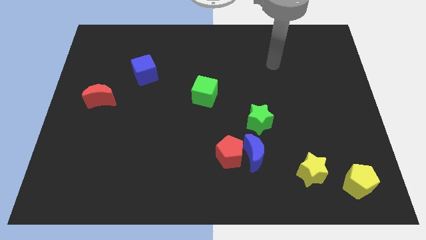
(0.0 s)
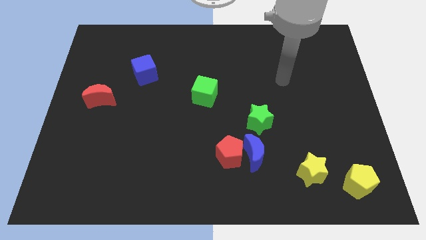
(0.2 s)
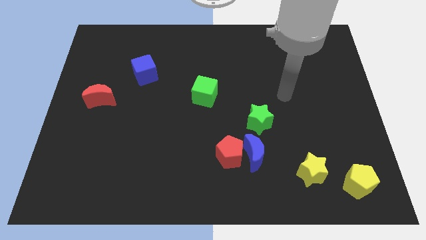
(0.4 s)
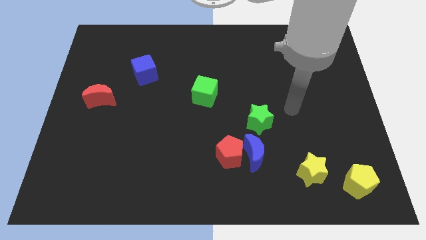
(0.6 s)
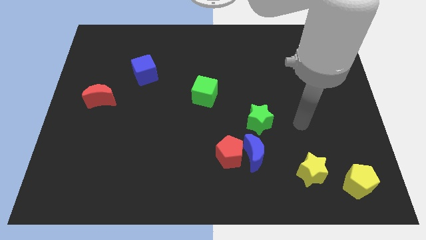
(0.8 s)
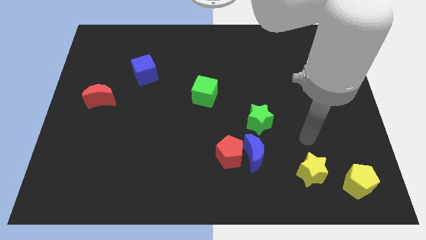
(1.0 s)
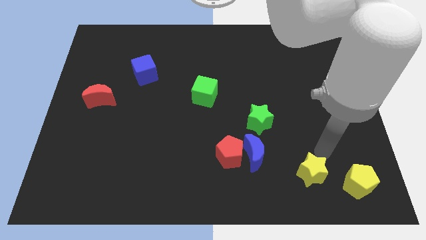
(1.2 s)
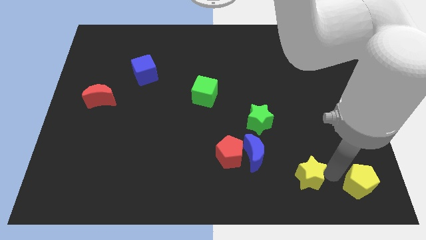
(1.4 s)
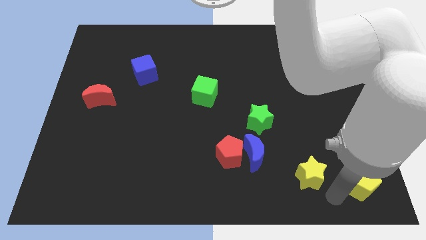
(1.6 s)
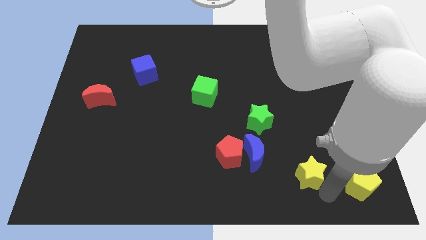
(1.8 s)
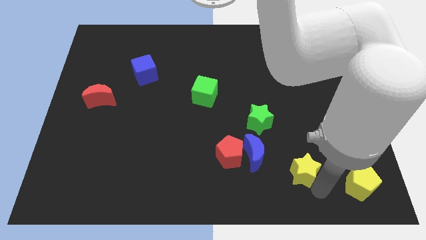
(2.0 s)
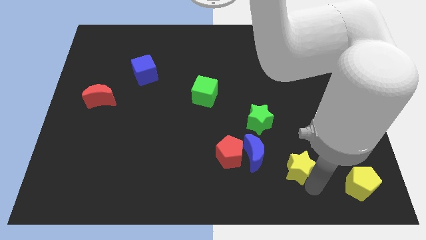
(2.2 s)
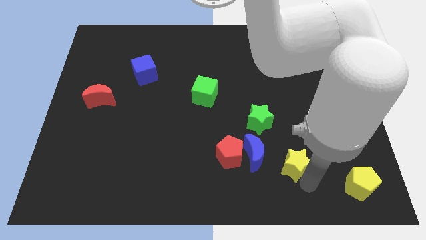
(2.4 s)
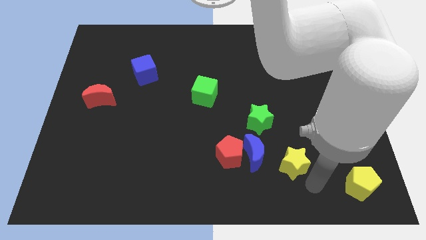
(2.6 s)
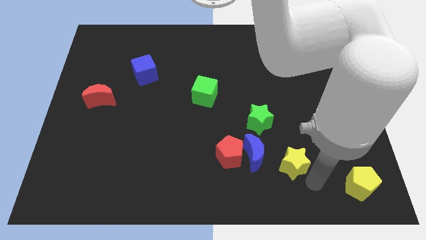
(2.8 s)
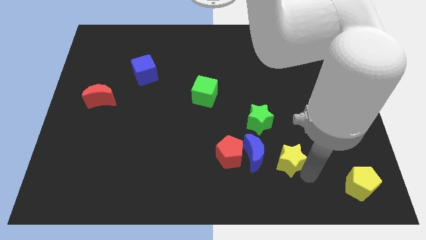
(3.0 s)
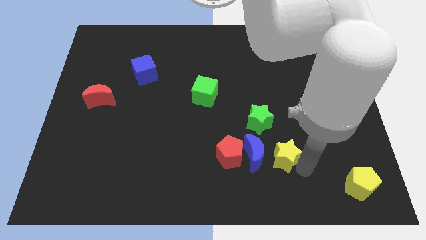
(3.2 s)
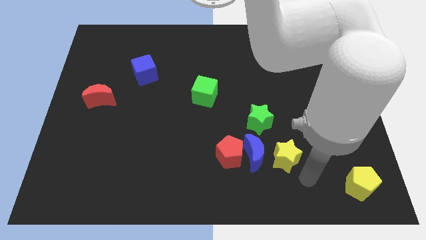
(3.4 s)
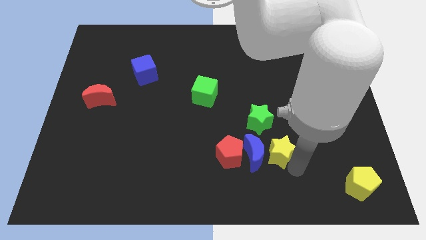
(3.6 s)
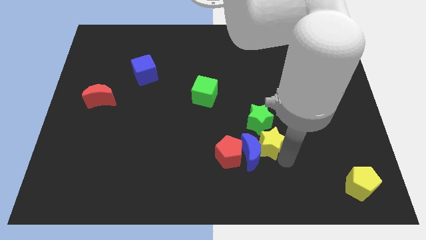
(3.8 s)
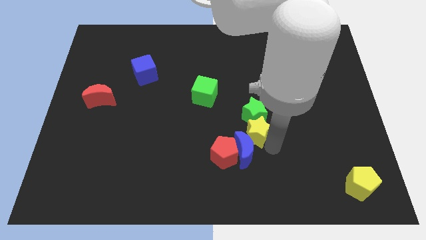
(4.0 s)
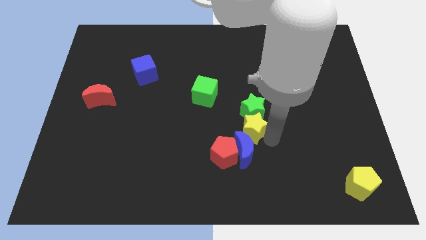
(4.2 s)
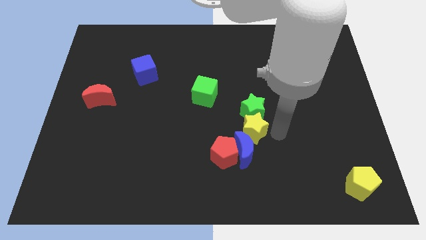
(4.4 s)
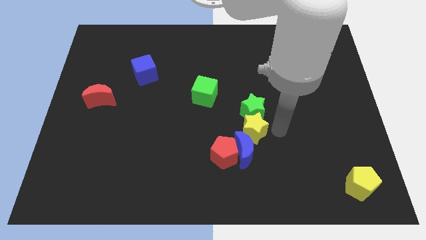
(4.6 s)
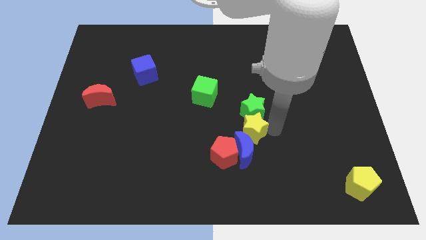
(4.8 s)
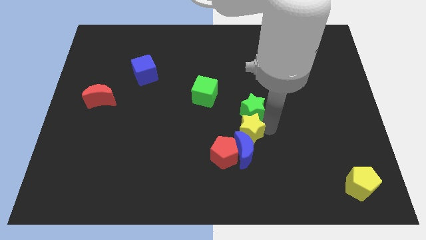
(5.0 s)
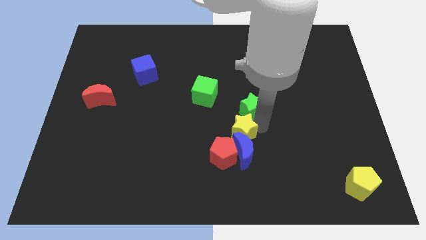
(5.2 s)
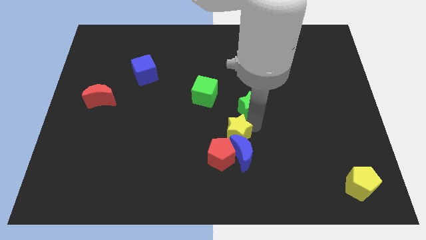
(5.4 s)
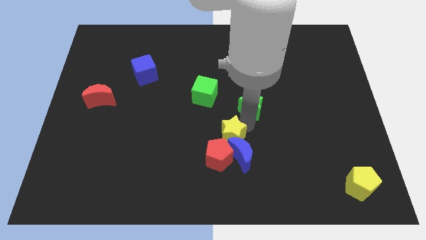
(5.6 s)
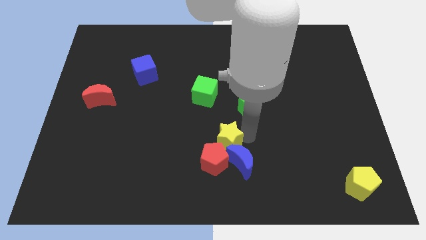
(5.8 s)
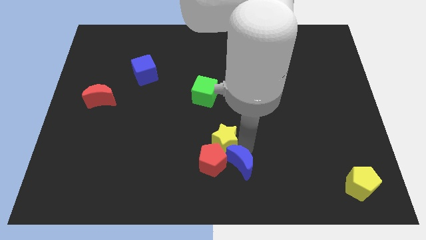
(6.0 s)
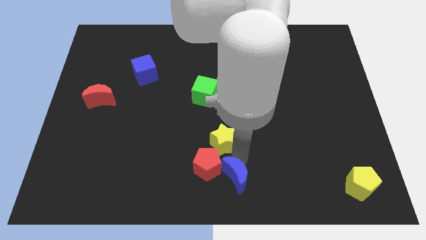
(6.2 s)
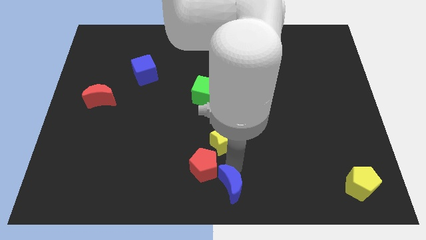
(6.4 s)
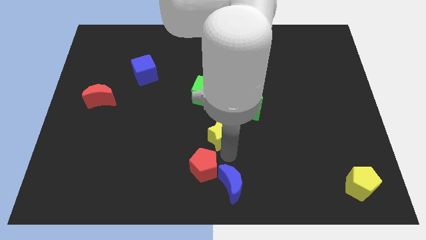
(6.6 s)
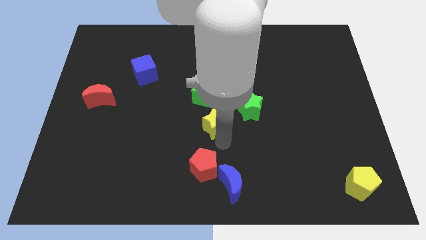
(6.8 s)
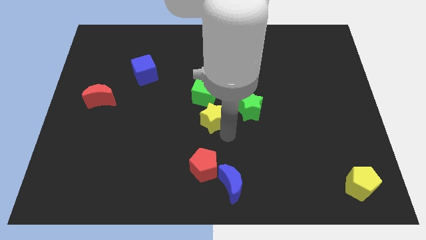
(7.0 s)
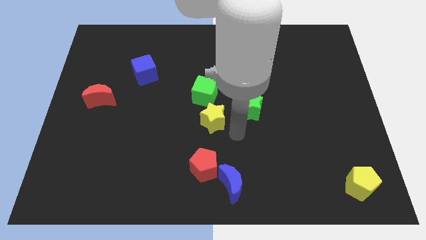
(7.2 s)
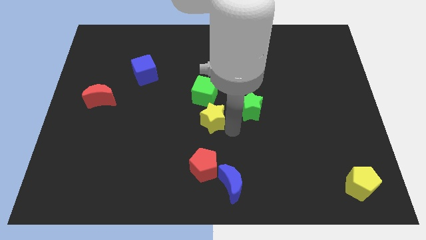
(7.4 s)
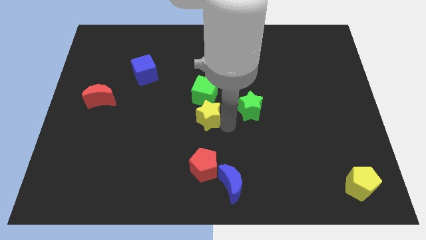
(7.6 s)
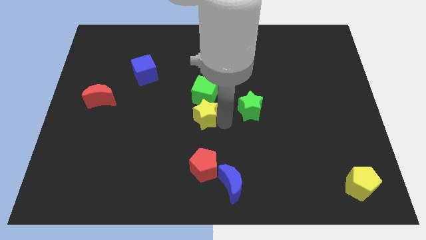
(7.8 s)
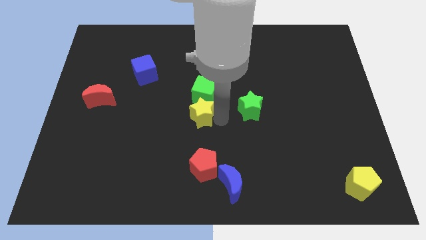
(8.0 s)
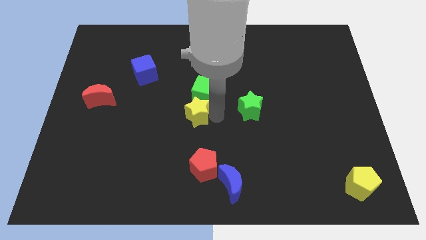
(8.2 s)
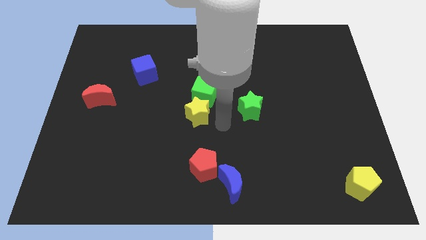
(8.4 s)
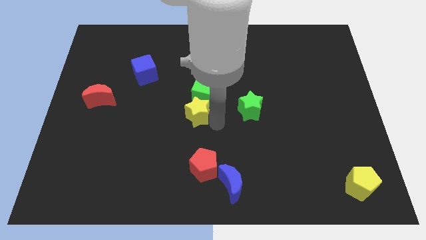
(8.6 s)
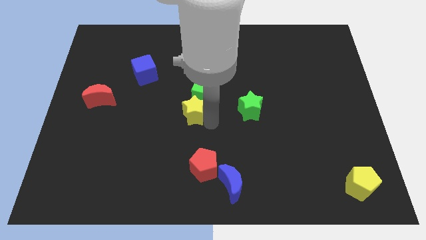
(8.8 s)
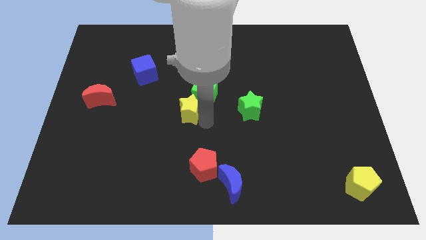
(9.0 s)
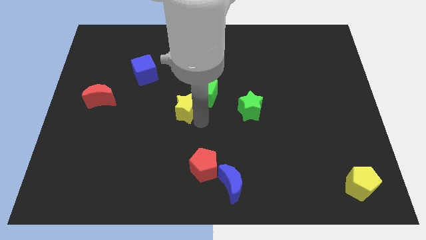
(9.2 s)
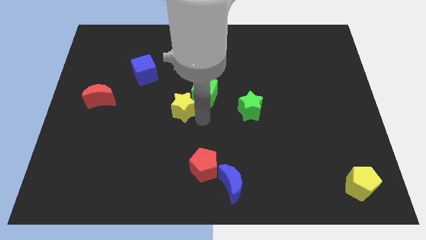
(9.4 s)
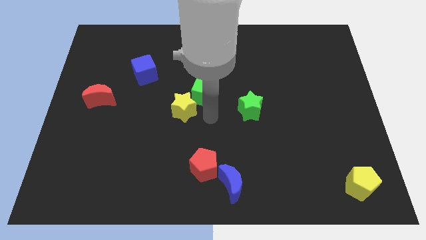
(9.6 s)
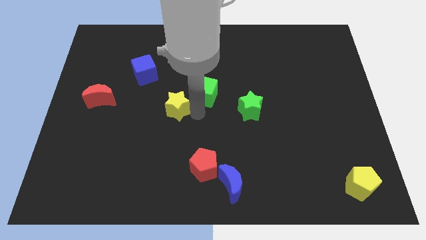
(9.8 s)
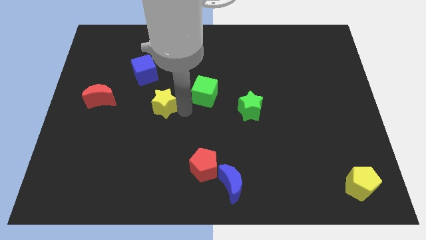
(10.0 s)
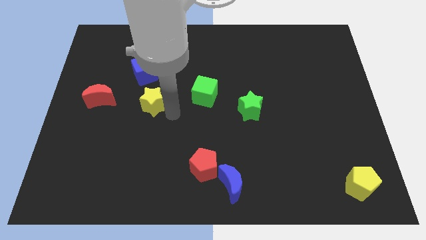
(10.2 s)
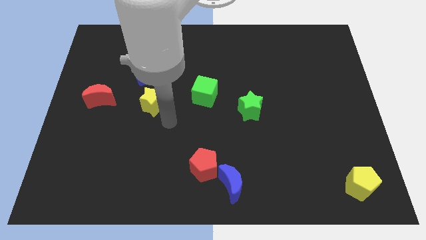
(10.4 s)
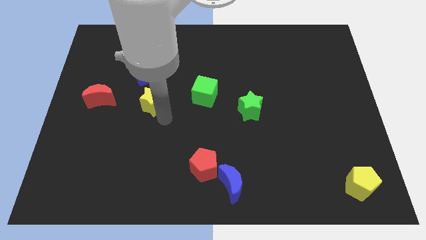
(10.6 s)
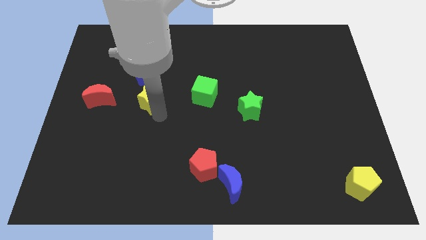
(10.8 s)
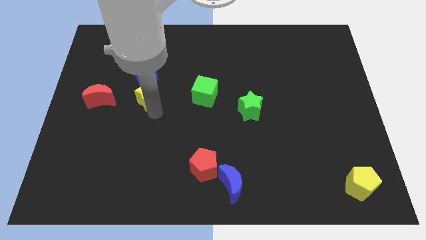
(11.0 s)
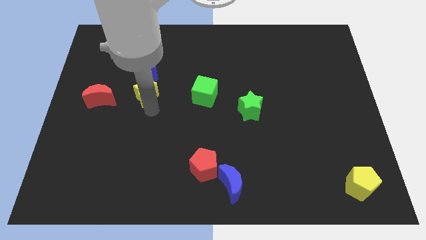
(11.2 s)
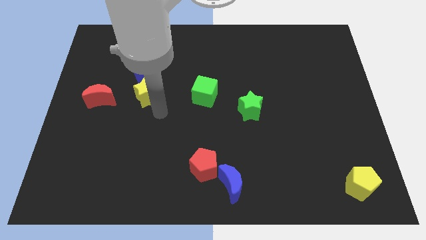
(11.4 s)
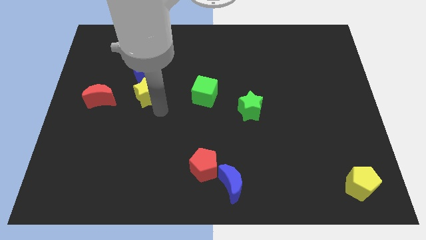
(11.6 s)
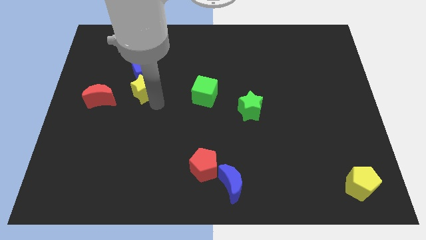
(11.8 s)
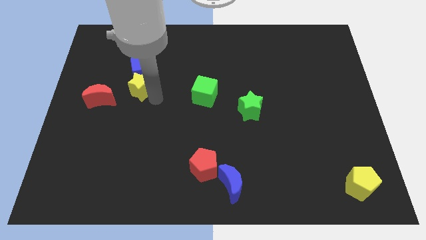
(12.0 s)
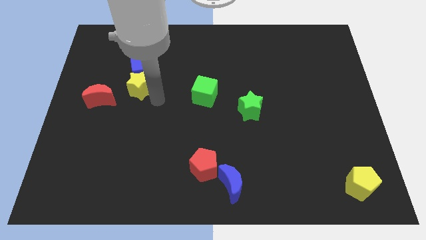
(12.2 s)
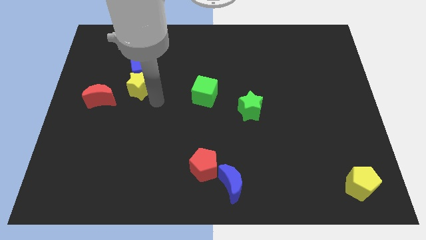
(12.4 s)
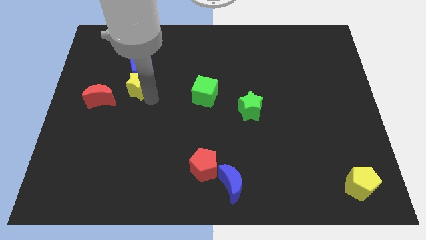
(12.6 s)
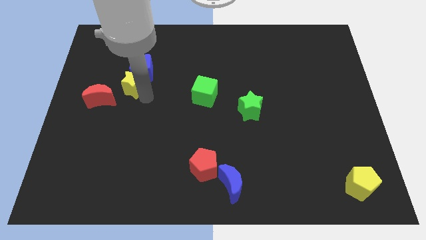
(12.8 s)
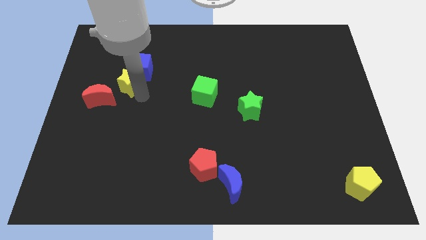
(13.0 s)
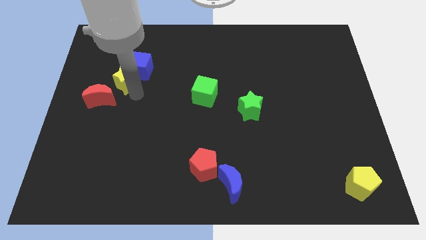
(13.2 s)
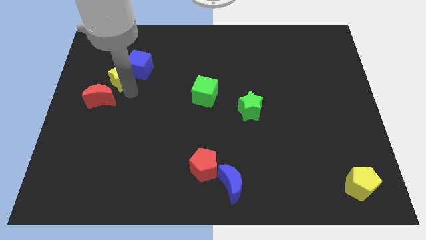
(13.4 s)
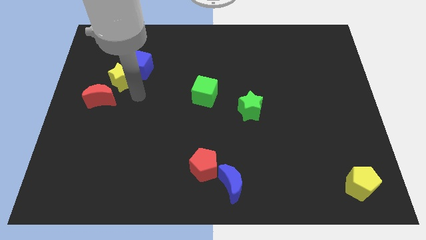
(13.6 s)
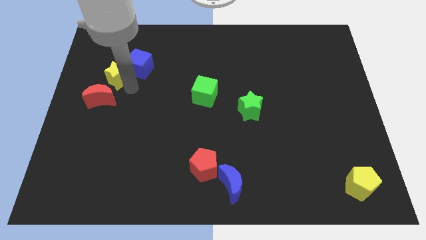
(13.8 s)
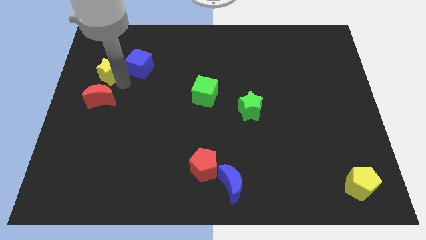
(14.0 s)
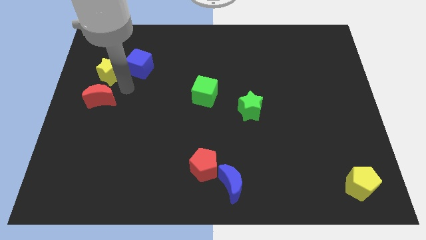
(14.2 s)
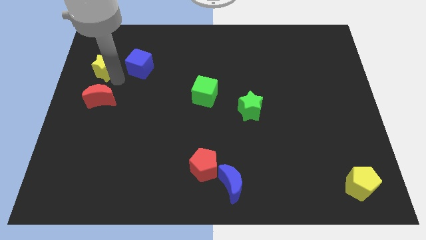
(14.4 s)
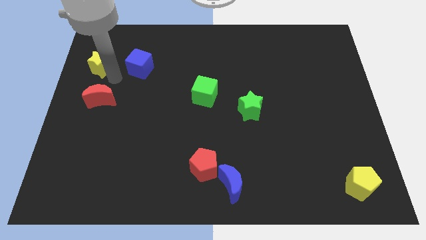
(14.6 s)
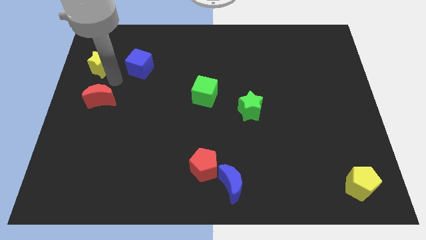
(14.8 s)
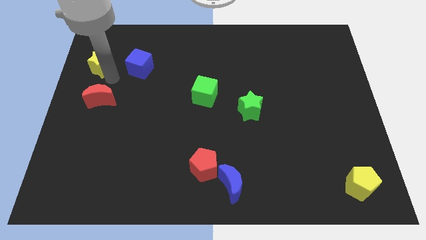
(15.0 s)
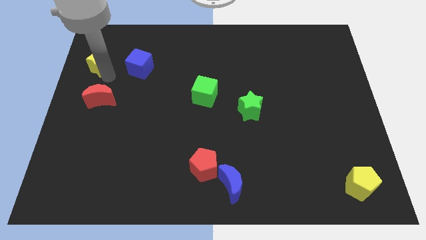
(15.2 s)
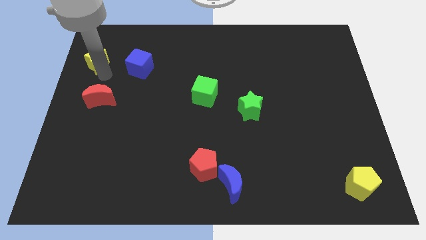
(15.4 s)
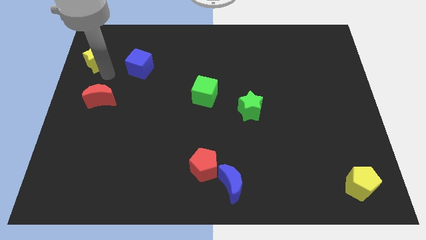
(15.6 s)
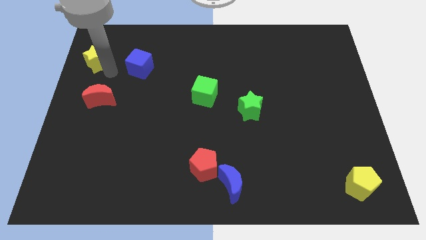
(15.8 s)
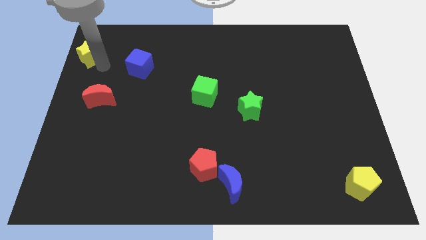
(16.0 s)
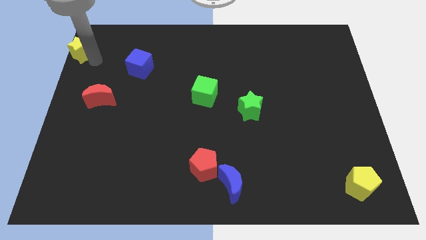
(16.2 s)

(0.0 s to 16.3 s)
slide the yellow star to the top left corner
